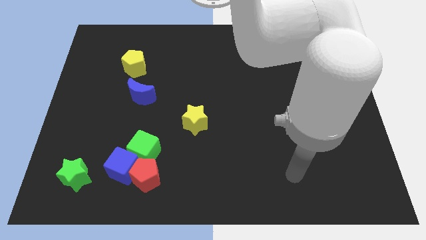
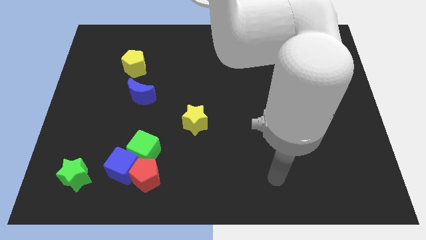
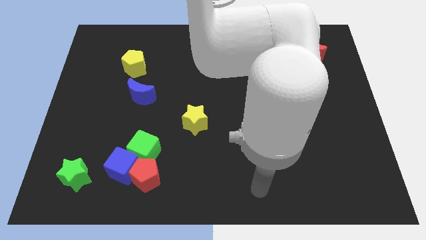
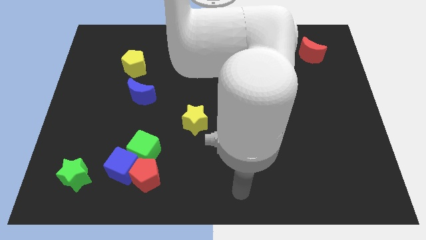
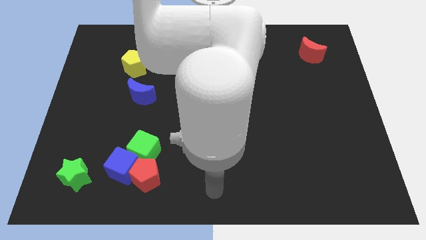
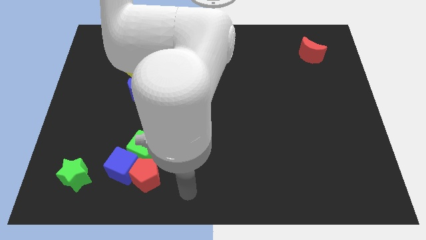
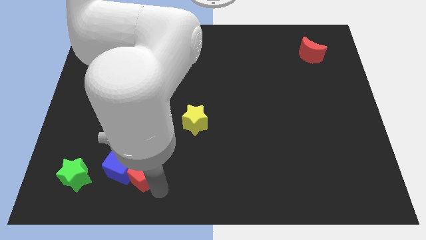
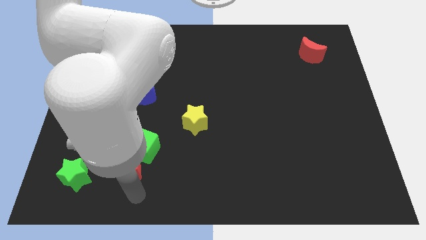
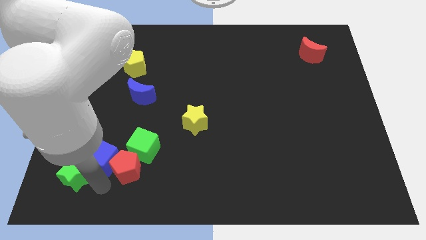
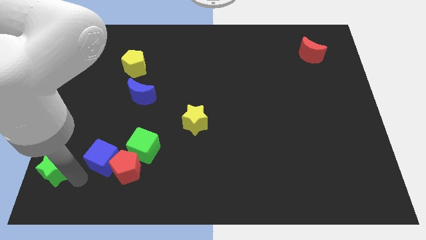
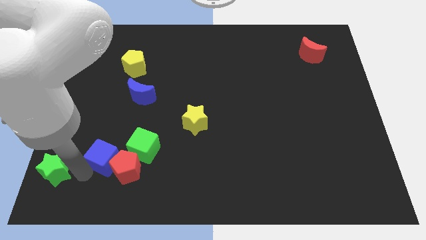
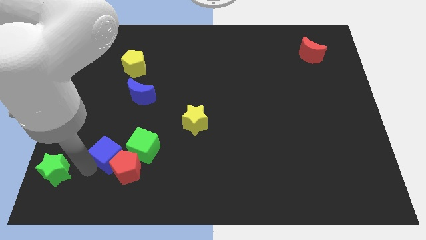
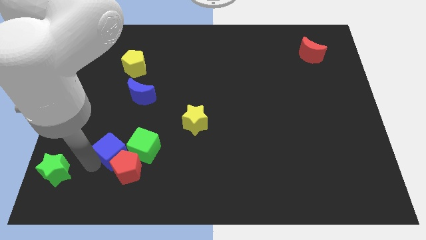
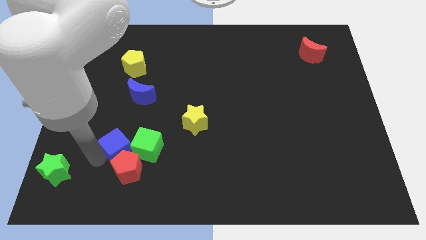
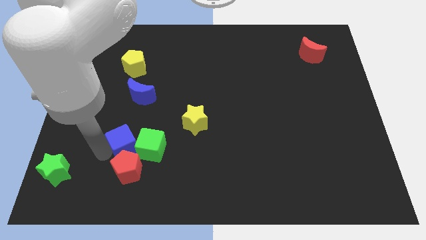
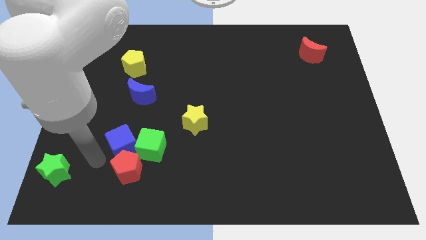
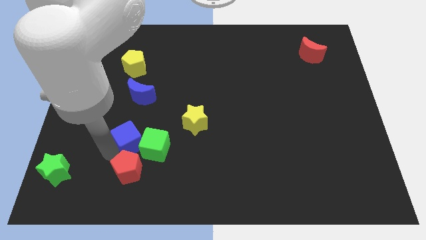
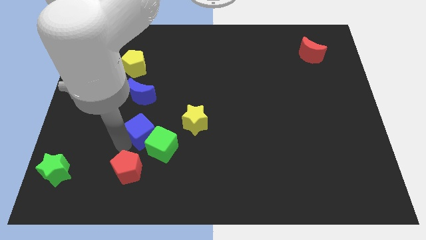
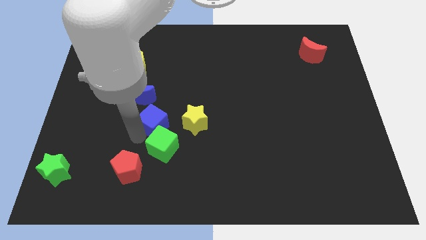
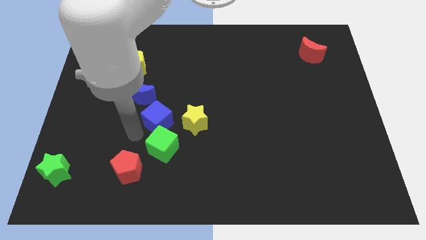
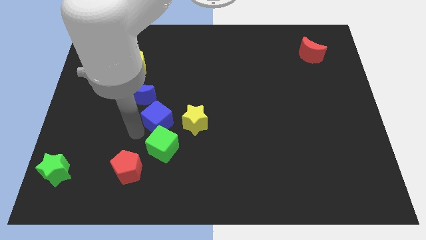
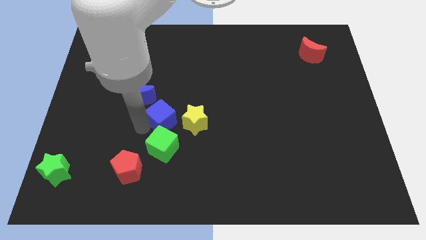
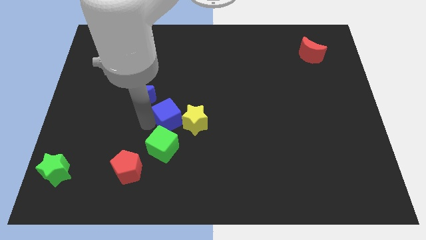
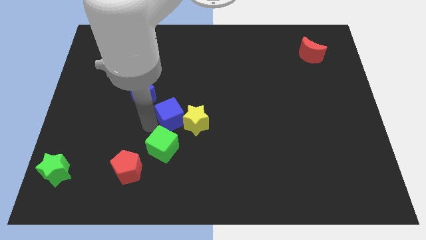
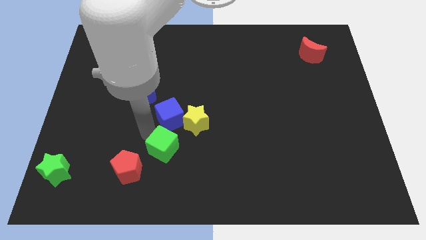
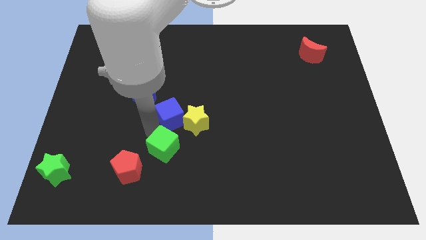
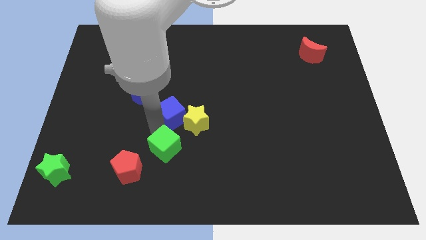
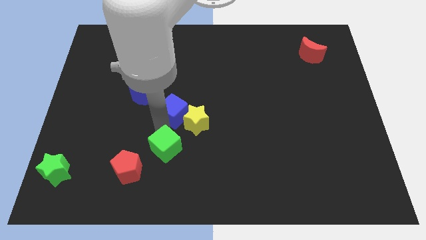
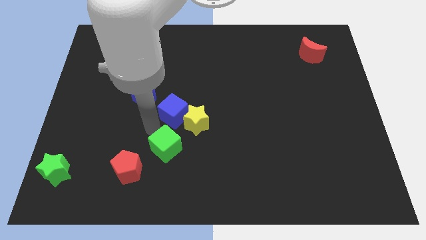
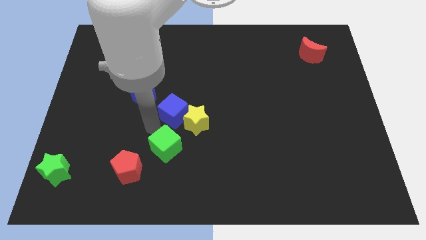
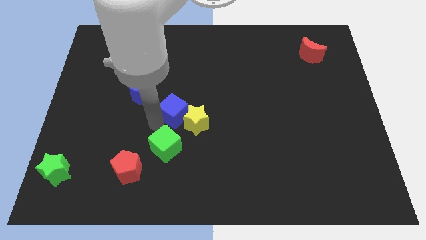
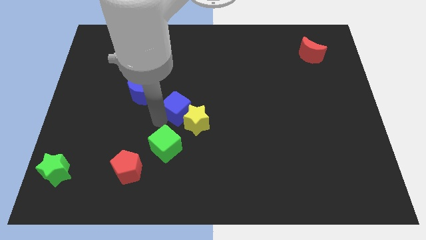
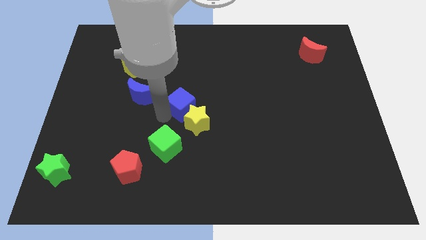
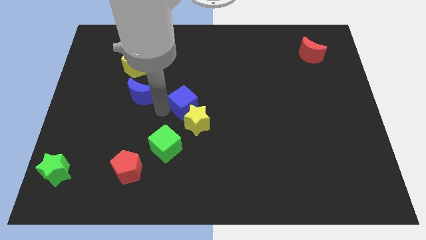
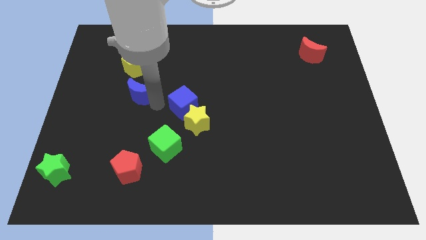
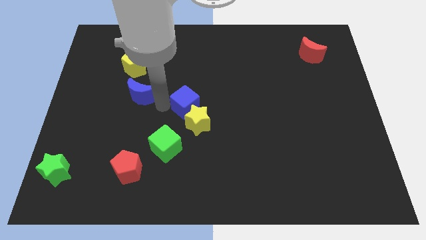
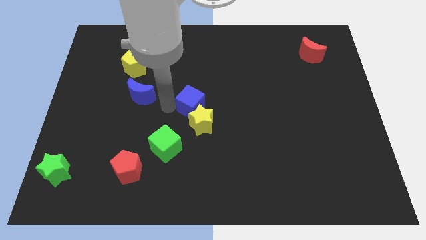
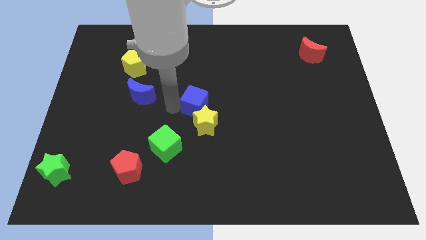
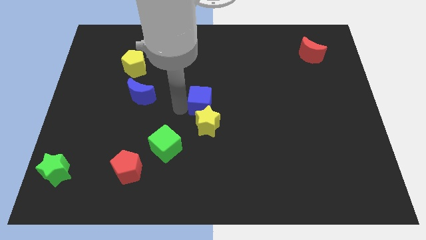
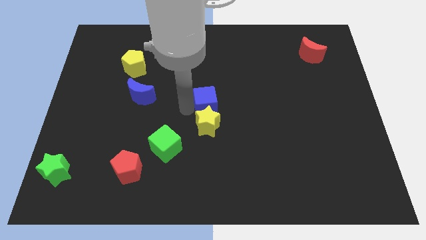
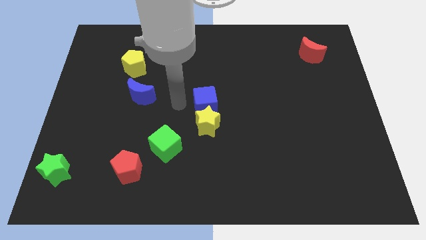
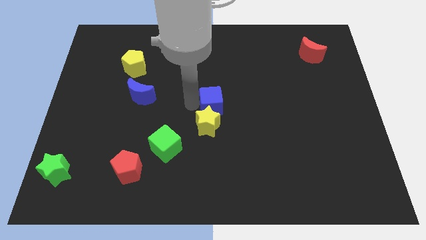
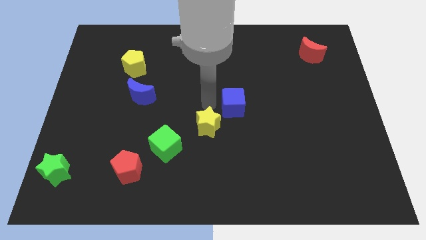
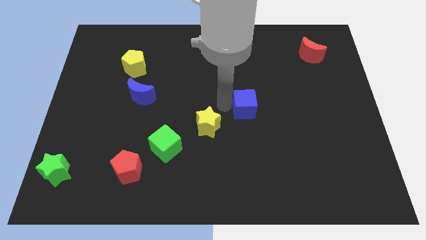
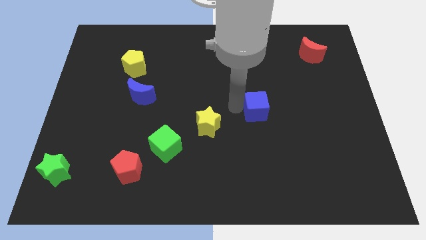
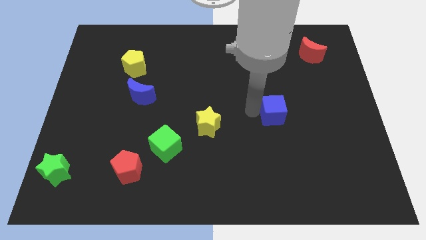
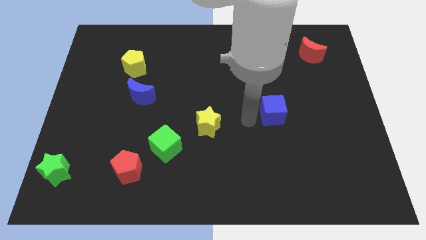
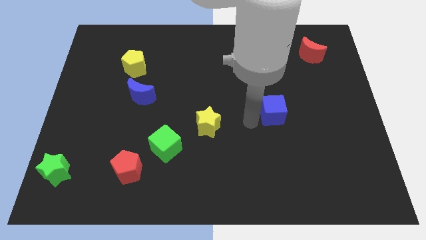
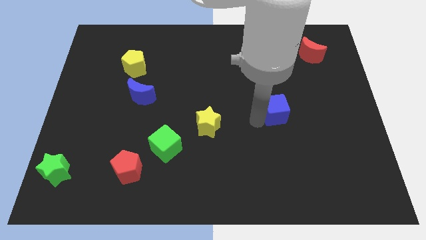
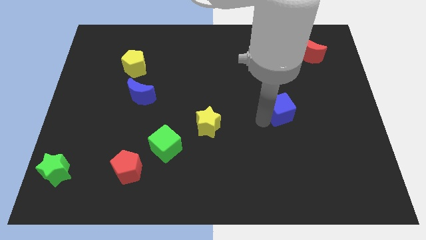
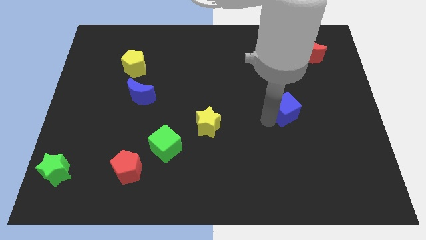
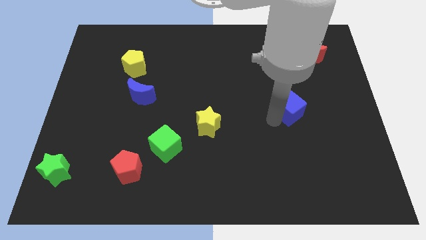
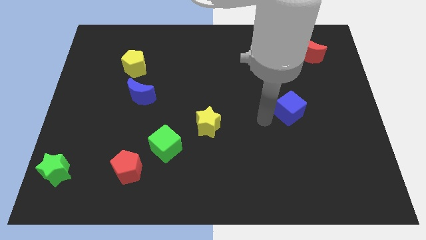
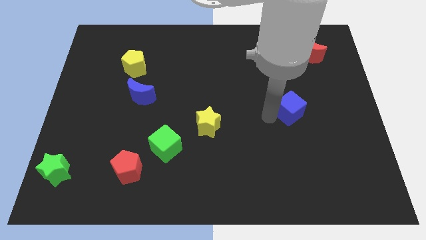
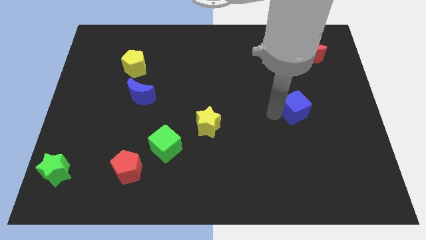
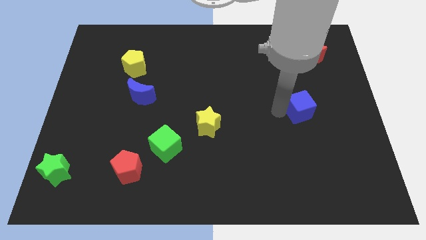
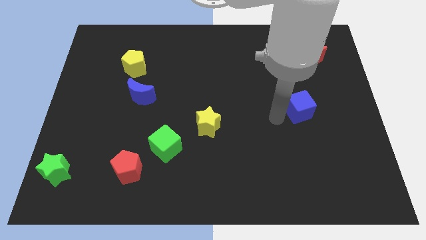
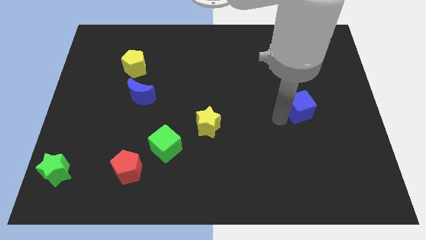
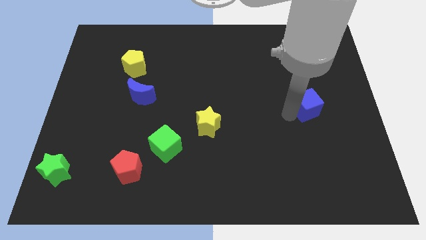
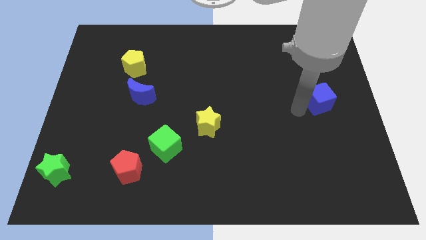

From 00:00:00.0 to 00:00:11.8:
move the blue cube to the right side

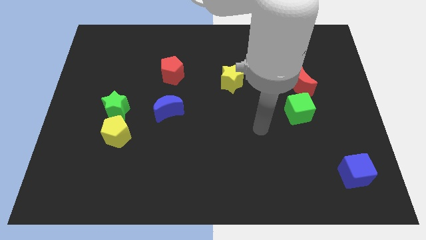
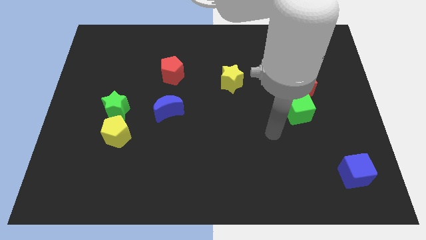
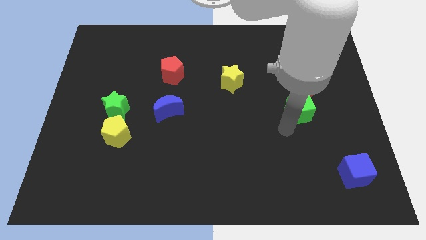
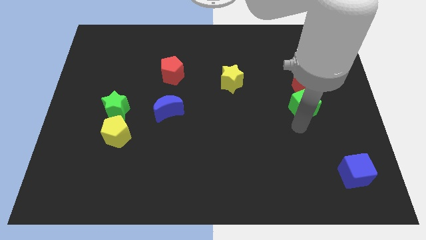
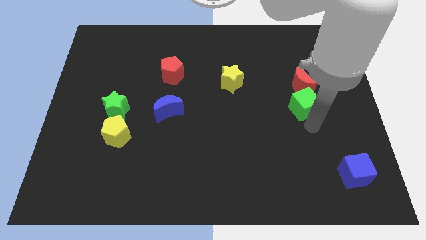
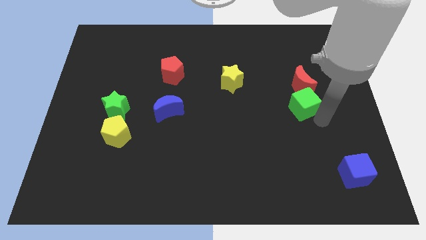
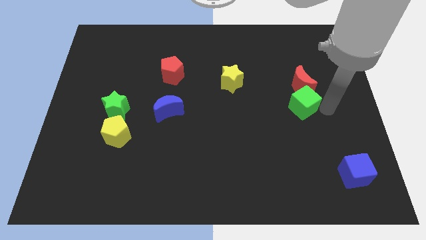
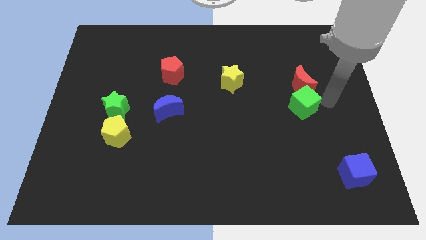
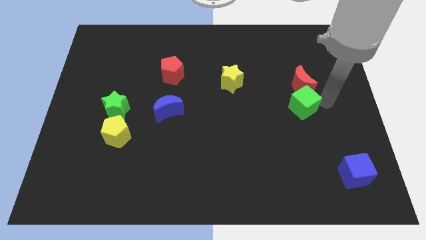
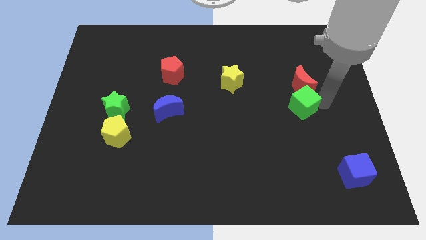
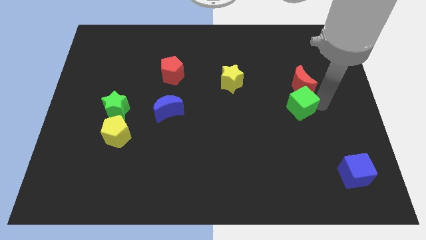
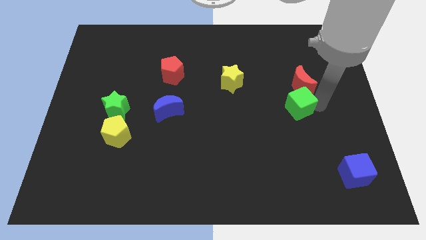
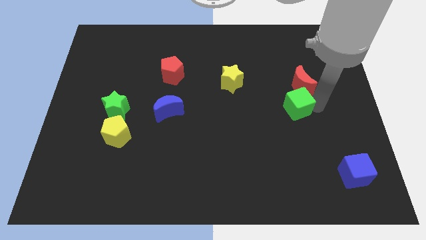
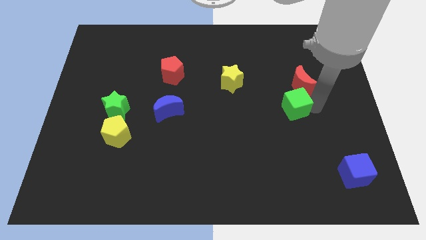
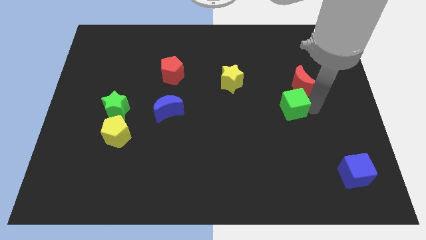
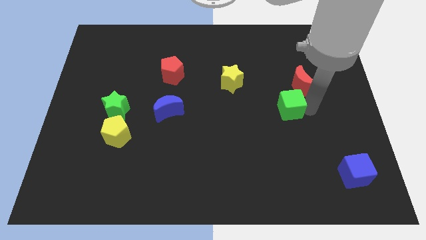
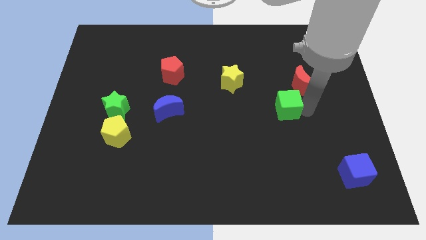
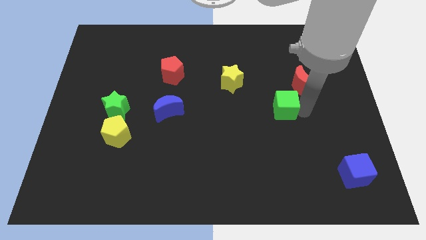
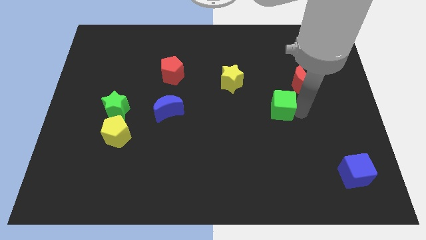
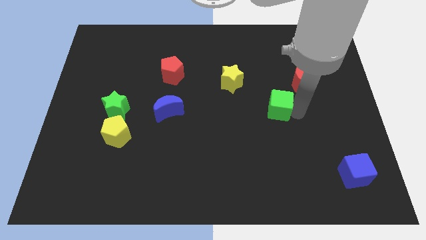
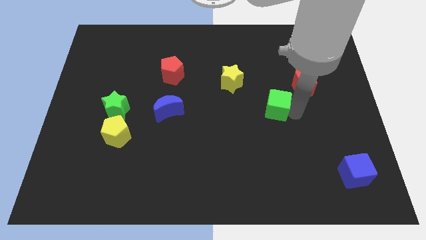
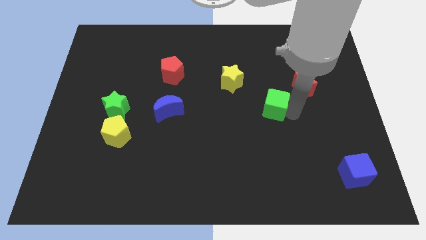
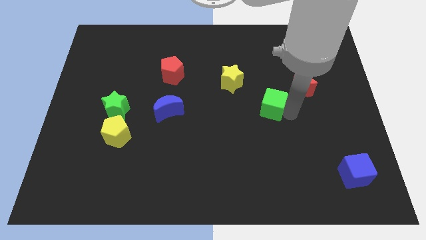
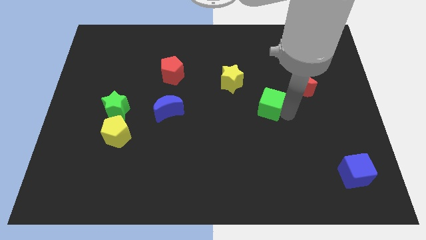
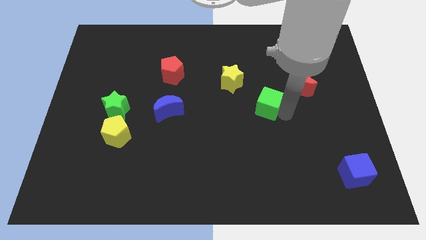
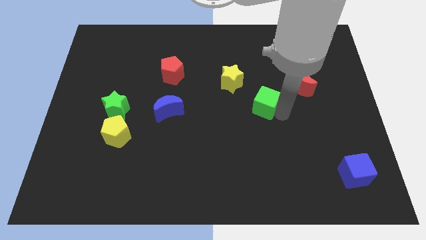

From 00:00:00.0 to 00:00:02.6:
slide the green cube to the center of the board

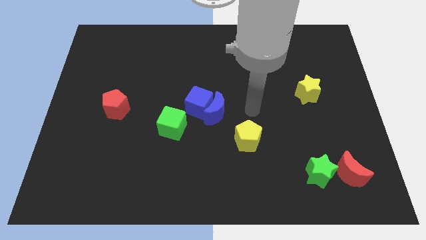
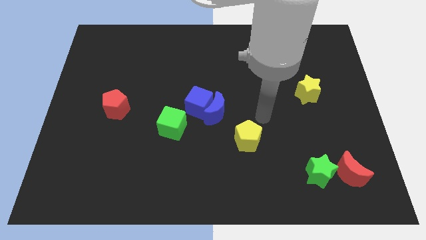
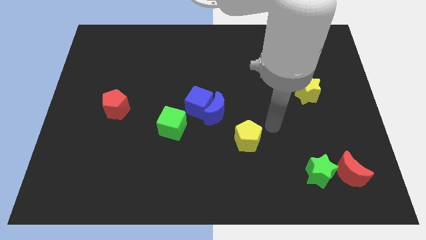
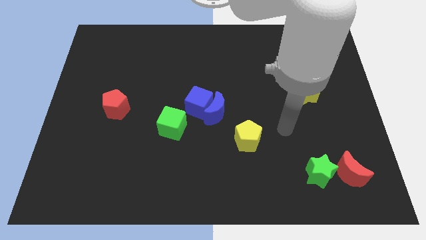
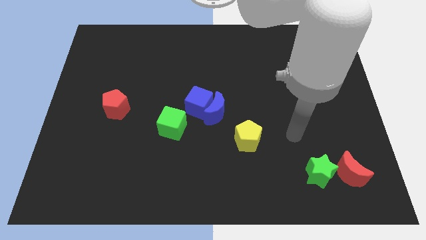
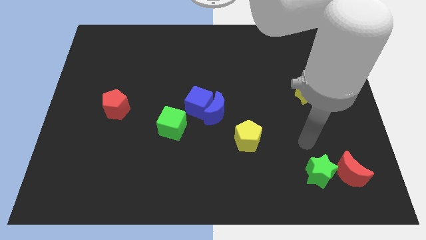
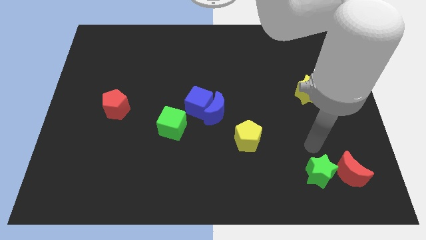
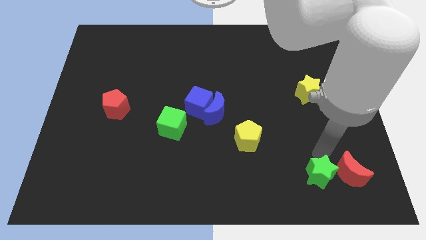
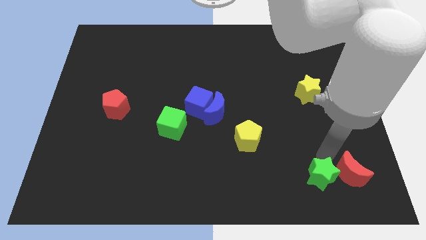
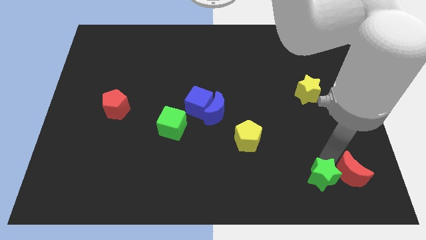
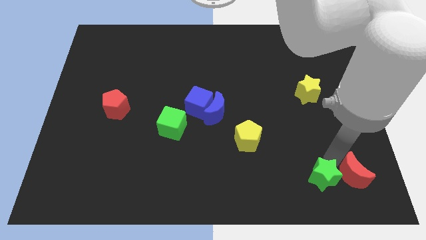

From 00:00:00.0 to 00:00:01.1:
slide the red moon to the bottom right of the board
